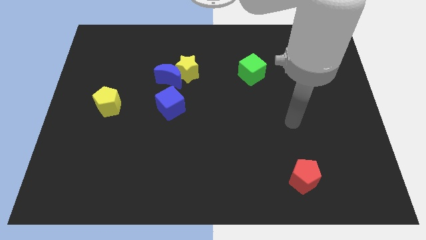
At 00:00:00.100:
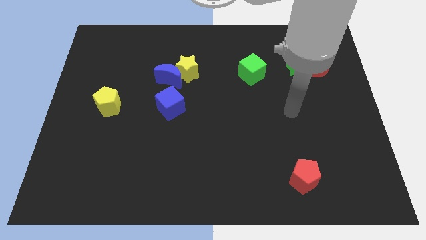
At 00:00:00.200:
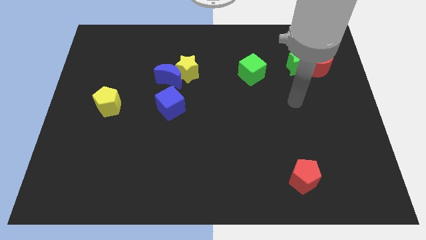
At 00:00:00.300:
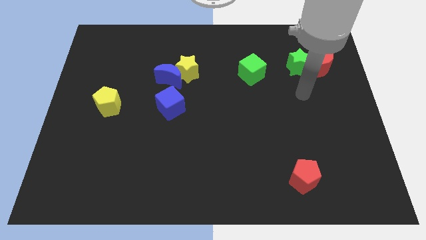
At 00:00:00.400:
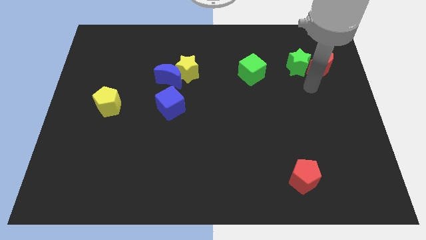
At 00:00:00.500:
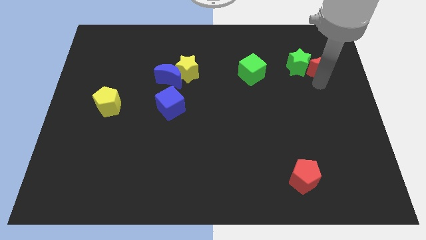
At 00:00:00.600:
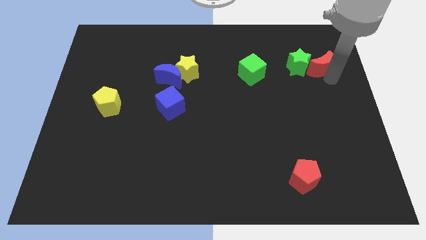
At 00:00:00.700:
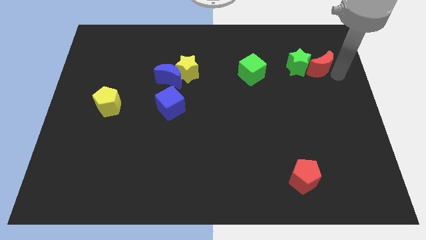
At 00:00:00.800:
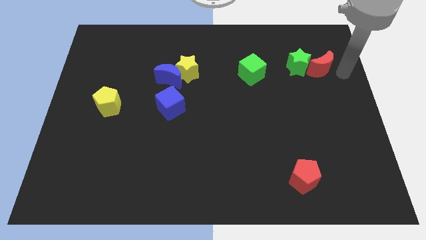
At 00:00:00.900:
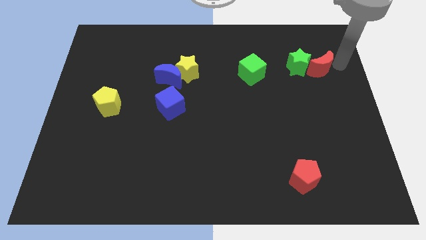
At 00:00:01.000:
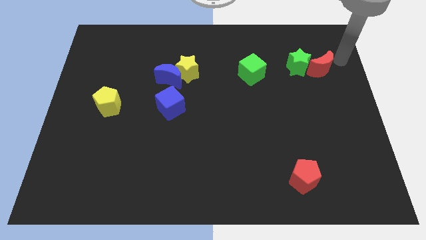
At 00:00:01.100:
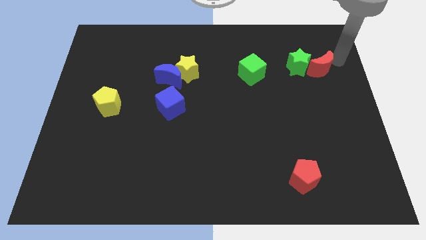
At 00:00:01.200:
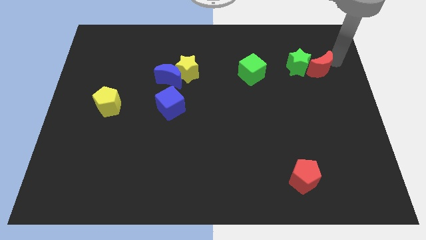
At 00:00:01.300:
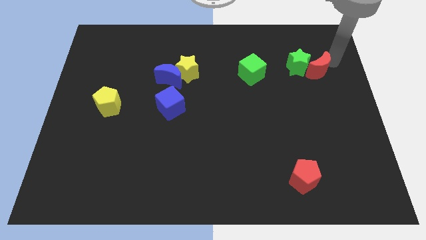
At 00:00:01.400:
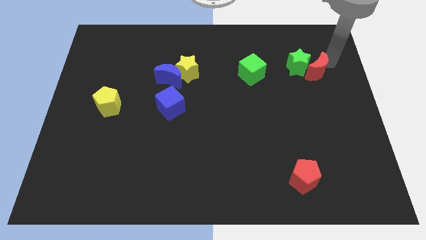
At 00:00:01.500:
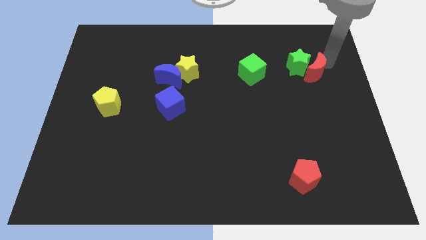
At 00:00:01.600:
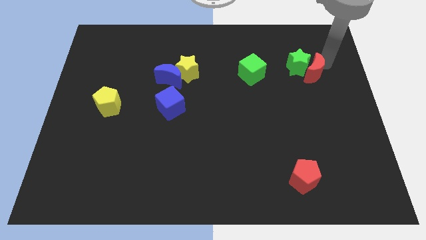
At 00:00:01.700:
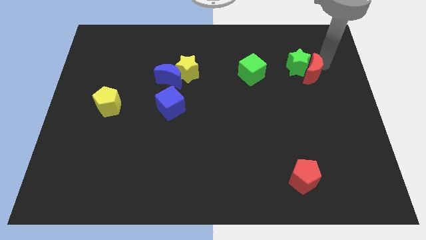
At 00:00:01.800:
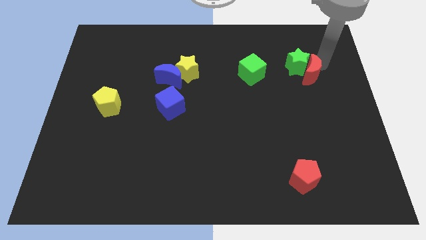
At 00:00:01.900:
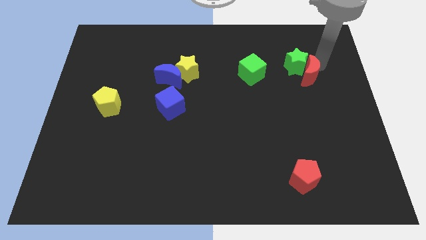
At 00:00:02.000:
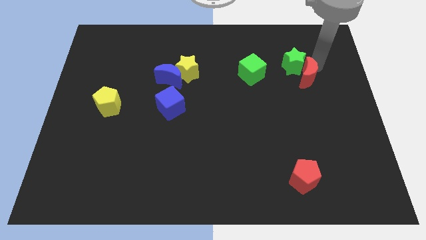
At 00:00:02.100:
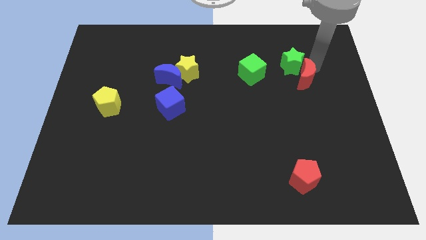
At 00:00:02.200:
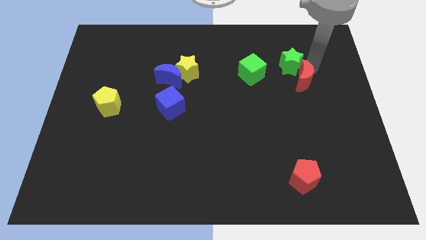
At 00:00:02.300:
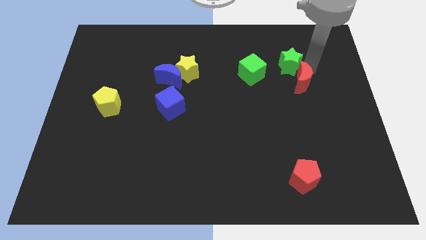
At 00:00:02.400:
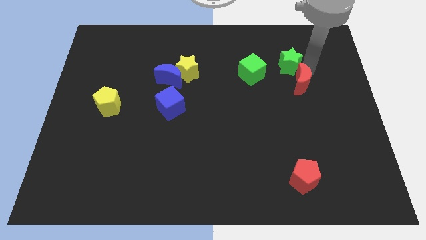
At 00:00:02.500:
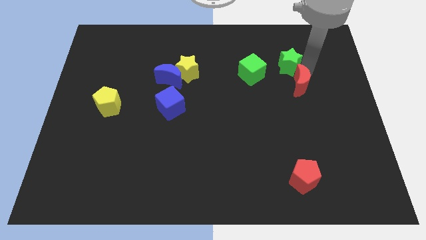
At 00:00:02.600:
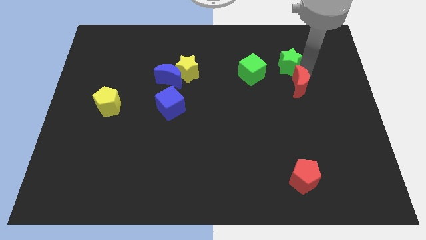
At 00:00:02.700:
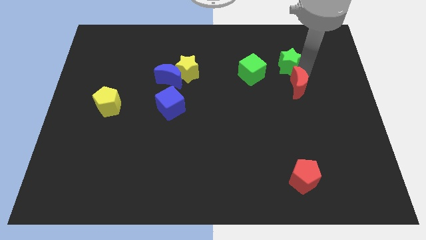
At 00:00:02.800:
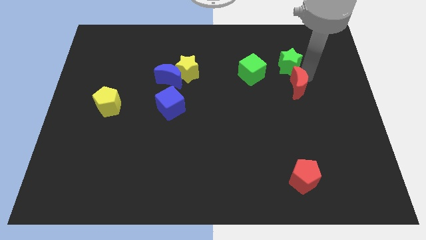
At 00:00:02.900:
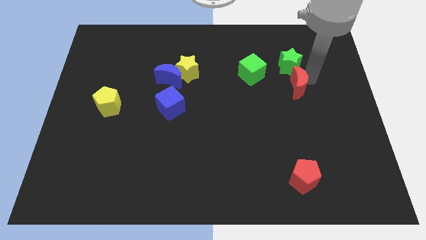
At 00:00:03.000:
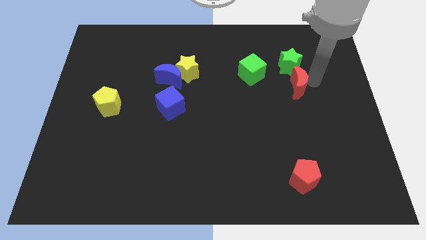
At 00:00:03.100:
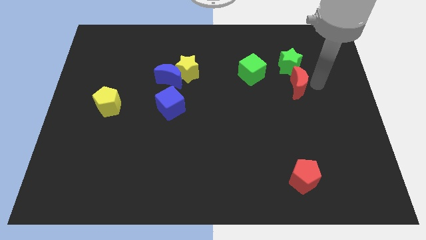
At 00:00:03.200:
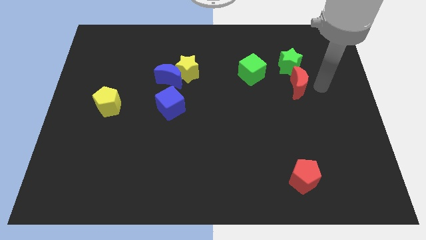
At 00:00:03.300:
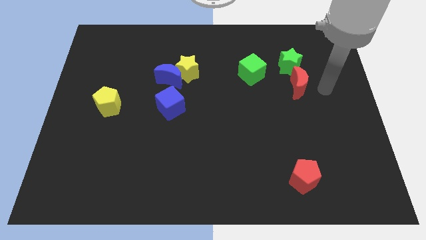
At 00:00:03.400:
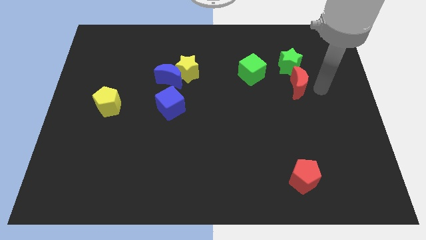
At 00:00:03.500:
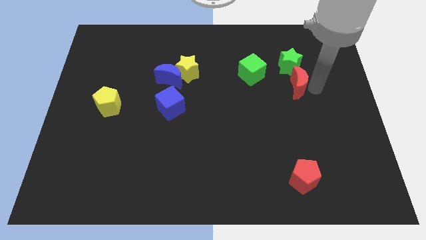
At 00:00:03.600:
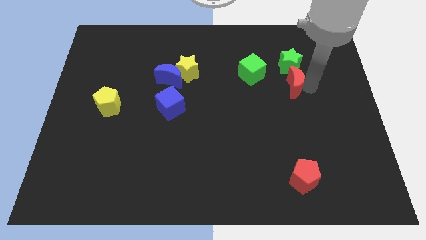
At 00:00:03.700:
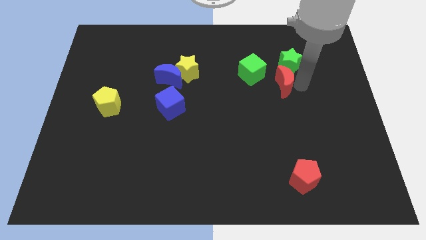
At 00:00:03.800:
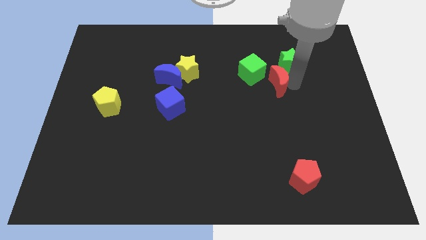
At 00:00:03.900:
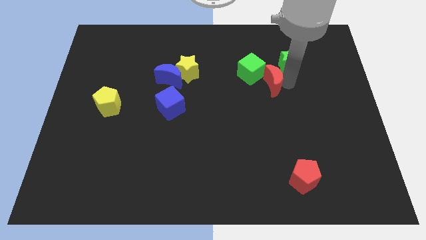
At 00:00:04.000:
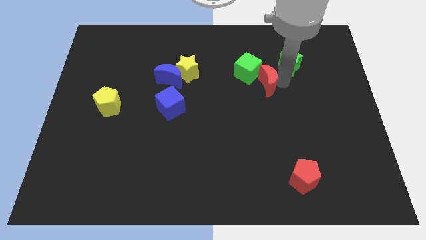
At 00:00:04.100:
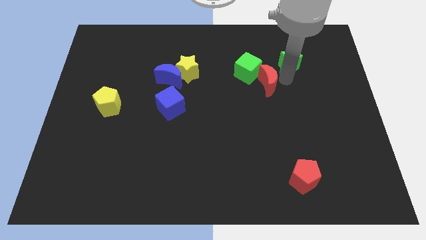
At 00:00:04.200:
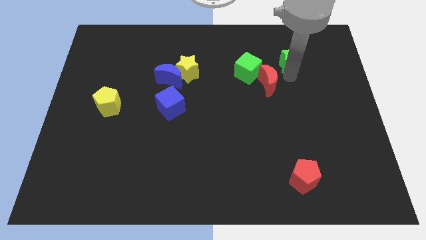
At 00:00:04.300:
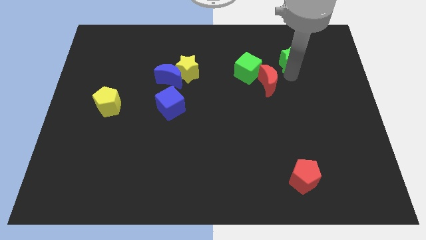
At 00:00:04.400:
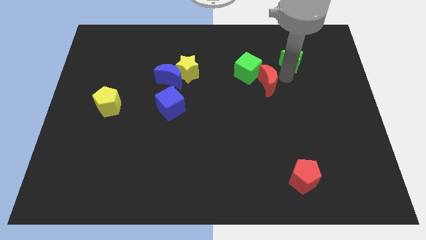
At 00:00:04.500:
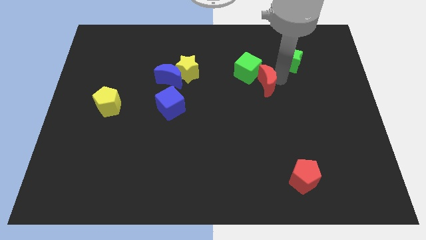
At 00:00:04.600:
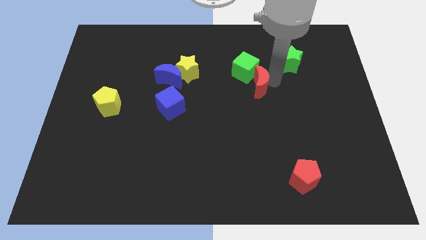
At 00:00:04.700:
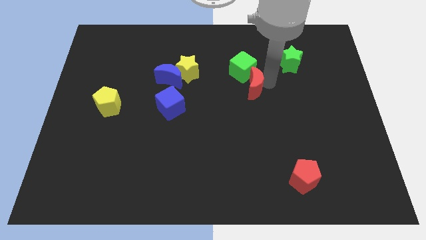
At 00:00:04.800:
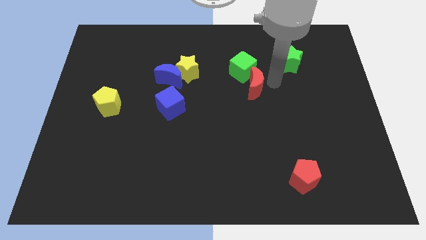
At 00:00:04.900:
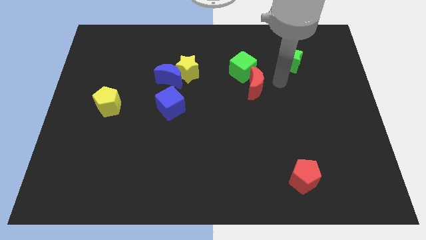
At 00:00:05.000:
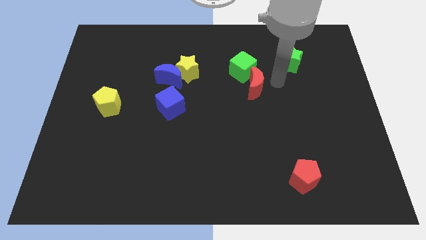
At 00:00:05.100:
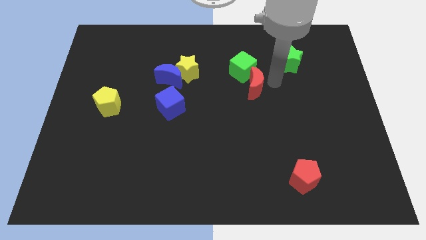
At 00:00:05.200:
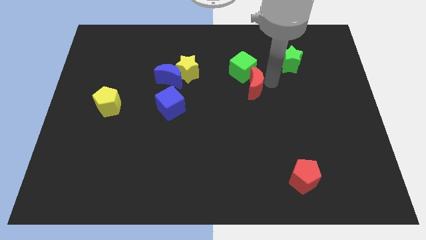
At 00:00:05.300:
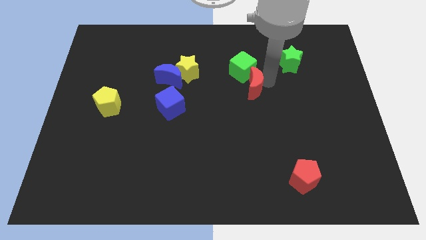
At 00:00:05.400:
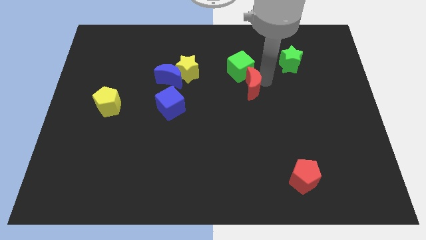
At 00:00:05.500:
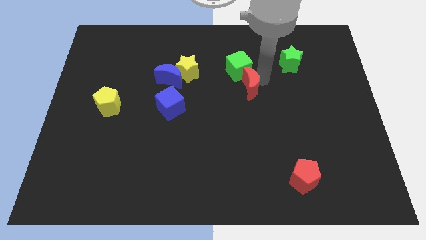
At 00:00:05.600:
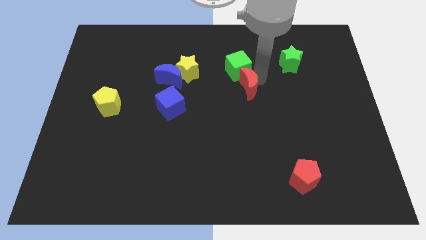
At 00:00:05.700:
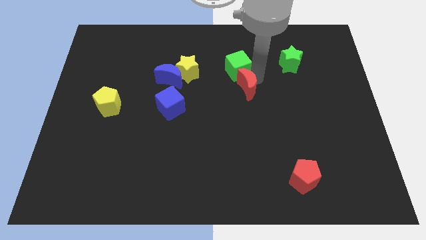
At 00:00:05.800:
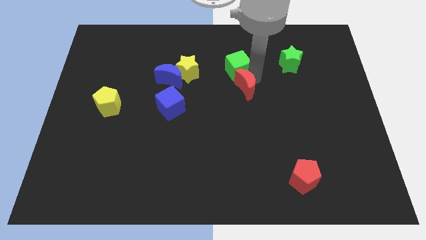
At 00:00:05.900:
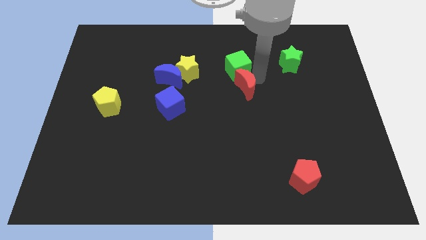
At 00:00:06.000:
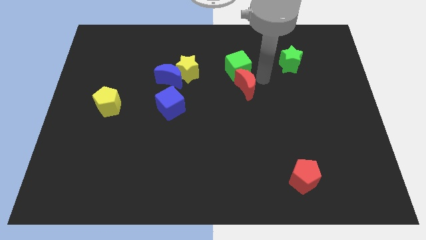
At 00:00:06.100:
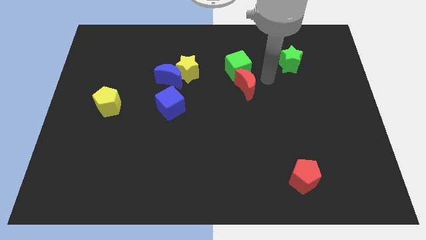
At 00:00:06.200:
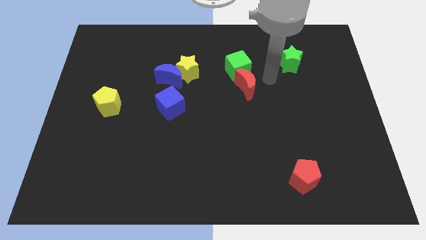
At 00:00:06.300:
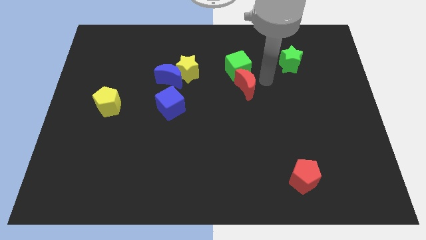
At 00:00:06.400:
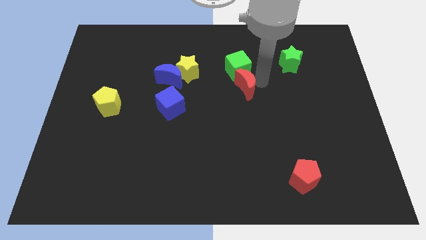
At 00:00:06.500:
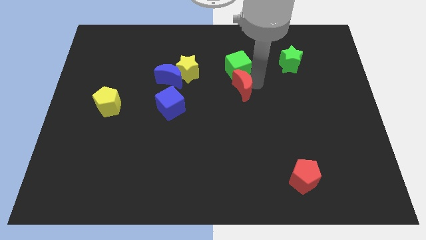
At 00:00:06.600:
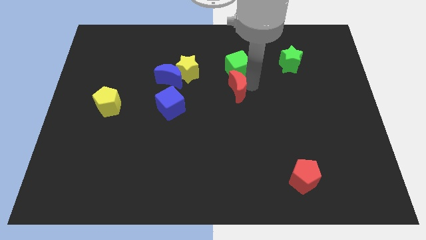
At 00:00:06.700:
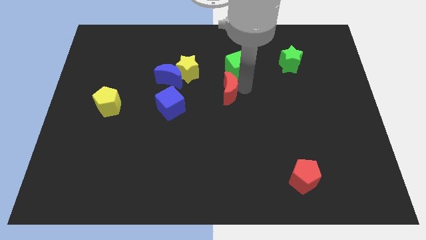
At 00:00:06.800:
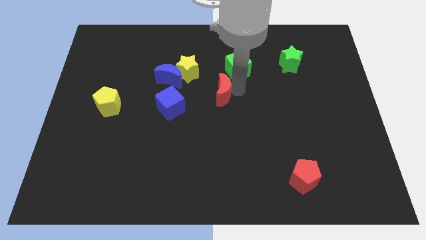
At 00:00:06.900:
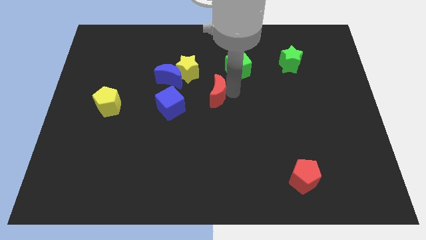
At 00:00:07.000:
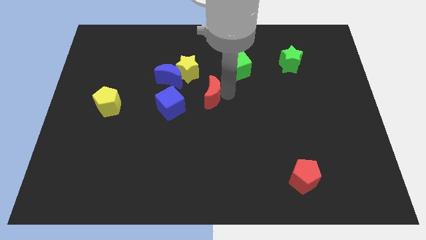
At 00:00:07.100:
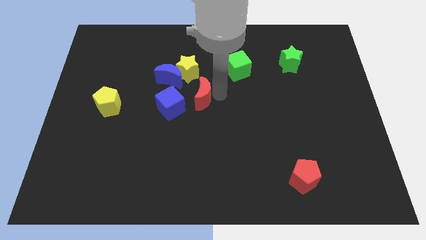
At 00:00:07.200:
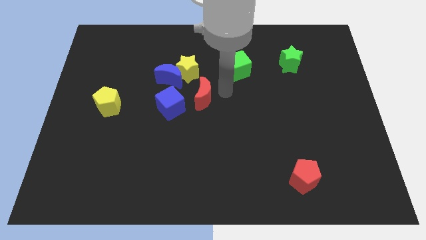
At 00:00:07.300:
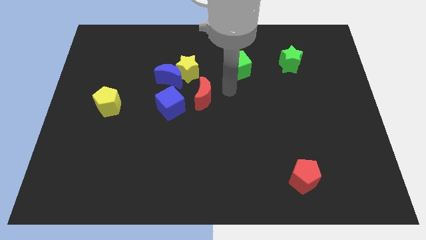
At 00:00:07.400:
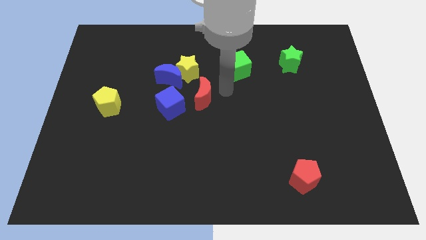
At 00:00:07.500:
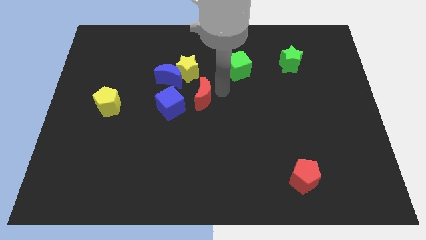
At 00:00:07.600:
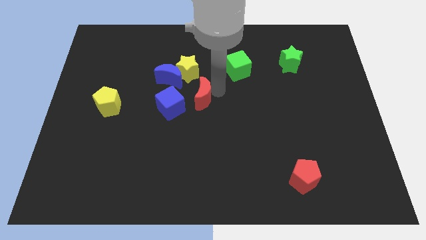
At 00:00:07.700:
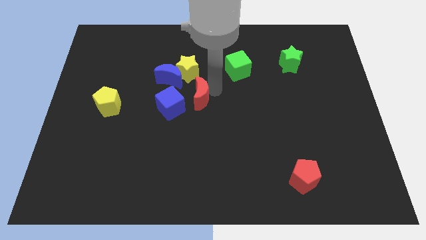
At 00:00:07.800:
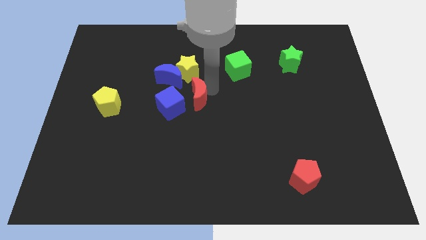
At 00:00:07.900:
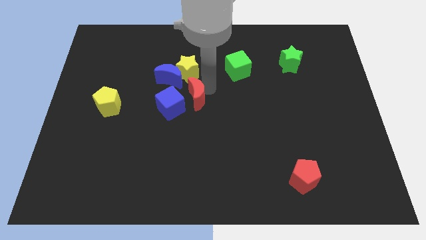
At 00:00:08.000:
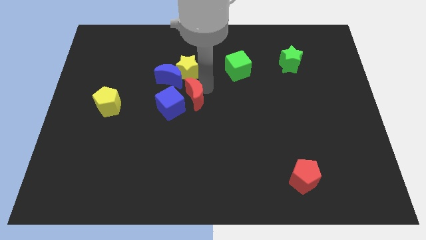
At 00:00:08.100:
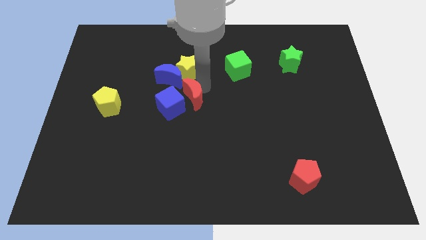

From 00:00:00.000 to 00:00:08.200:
push the red moon to the blue cube
